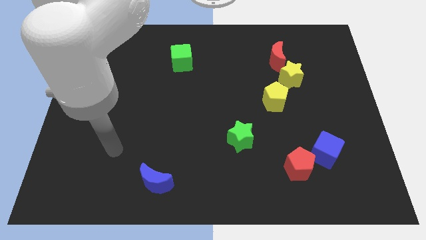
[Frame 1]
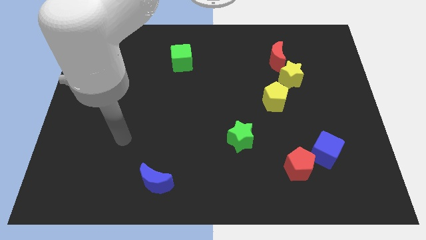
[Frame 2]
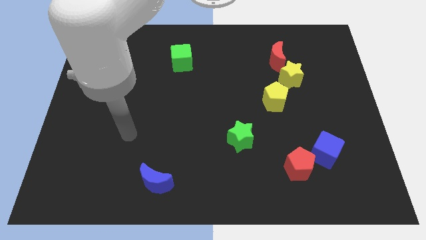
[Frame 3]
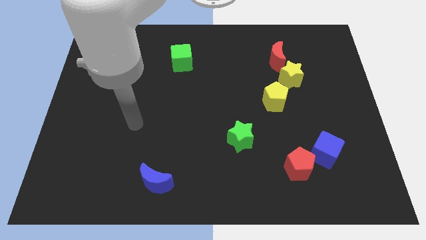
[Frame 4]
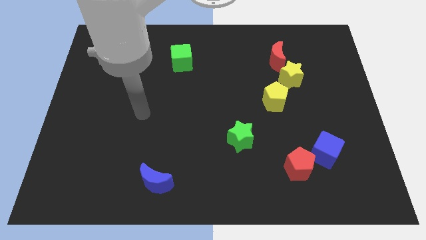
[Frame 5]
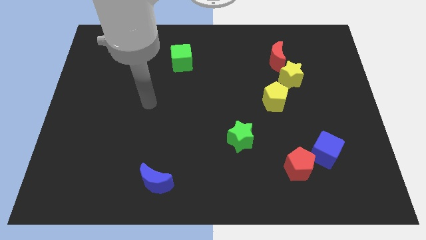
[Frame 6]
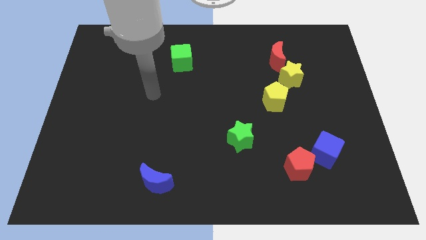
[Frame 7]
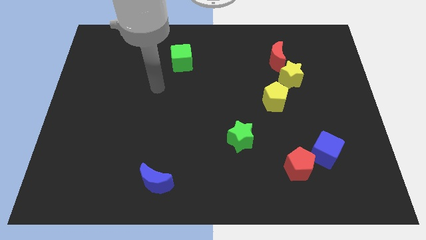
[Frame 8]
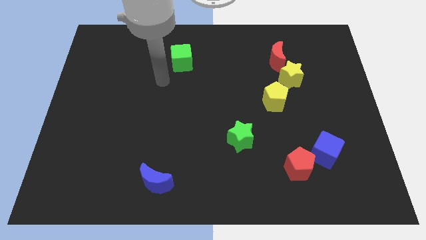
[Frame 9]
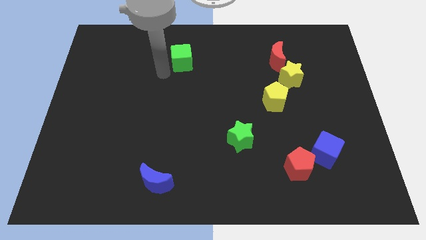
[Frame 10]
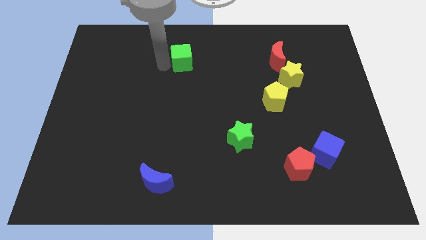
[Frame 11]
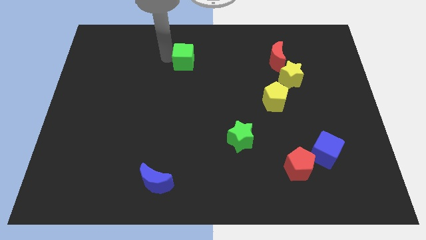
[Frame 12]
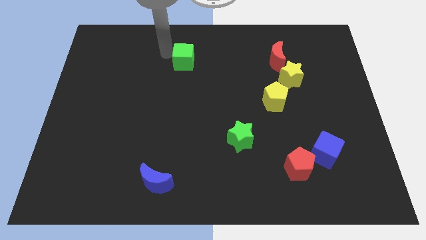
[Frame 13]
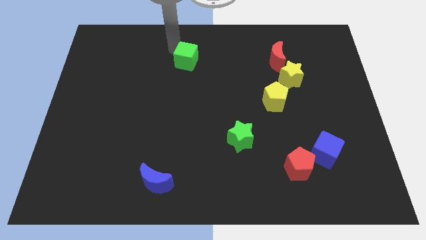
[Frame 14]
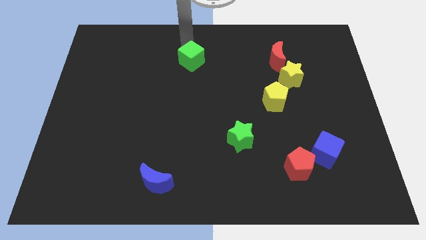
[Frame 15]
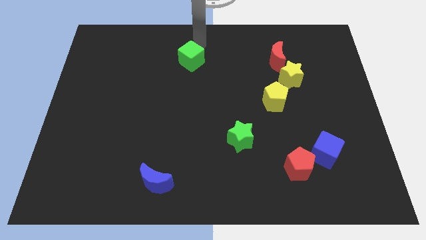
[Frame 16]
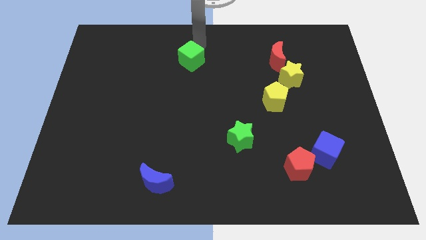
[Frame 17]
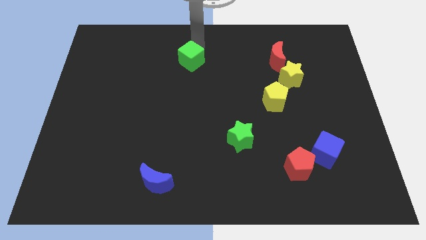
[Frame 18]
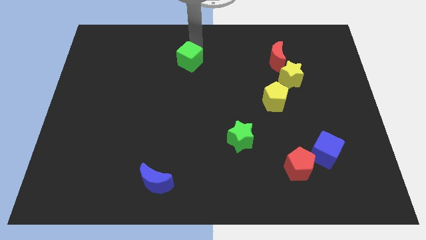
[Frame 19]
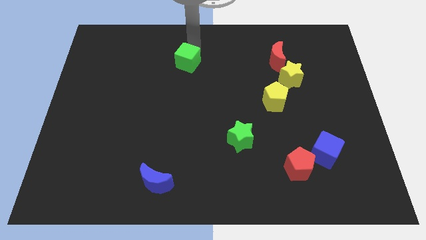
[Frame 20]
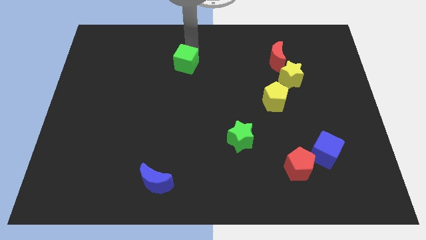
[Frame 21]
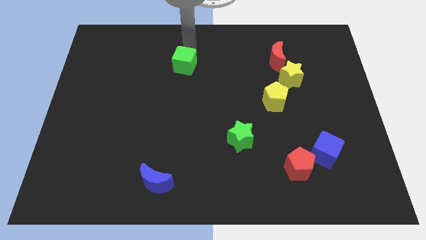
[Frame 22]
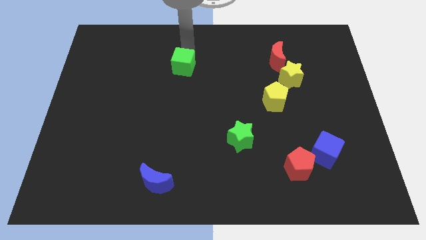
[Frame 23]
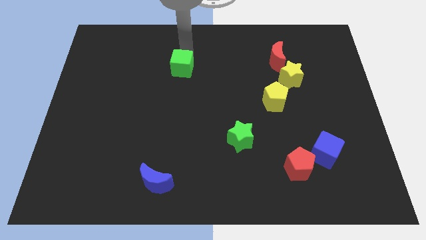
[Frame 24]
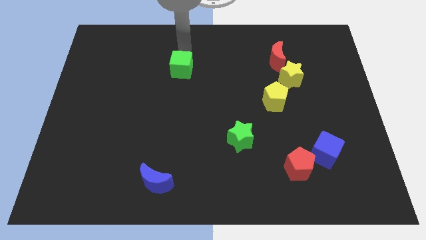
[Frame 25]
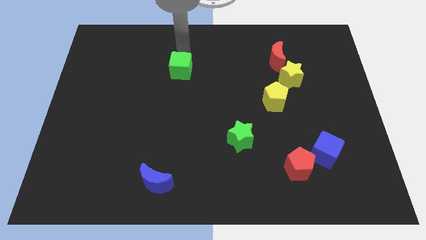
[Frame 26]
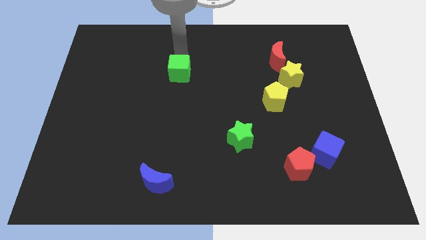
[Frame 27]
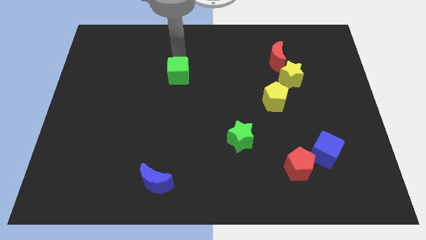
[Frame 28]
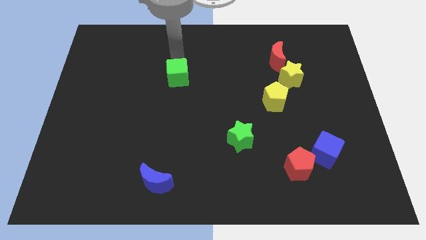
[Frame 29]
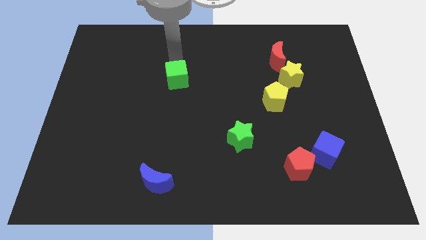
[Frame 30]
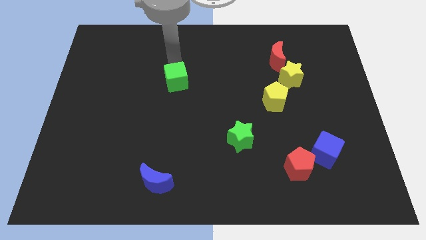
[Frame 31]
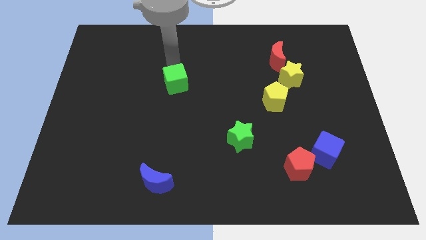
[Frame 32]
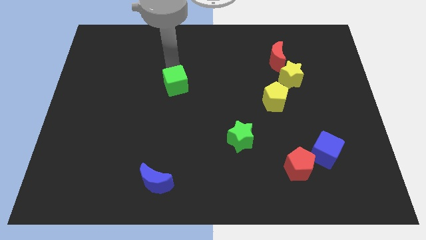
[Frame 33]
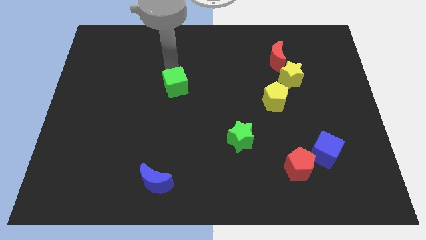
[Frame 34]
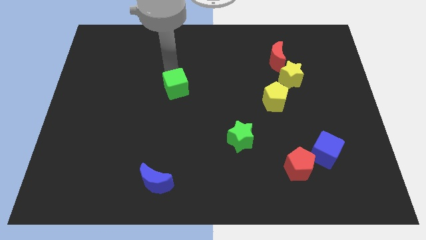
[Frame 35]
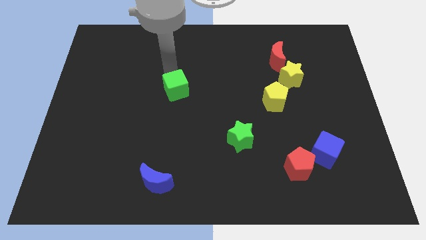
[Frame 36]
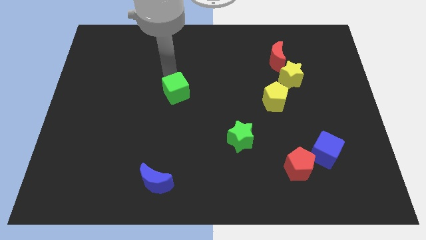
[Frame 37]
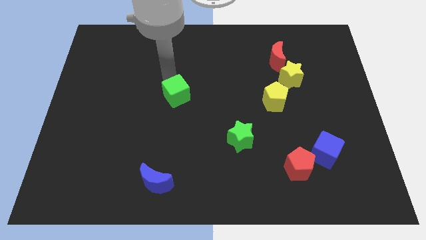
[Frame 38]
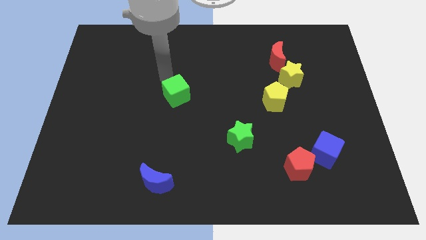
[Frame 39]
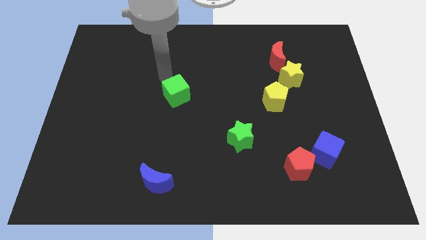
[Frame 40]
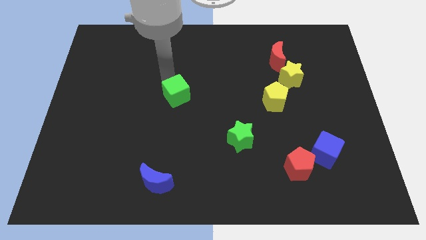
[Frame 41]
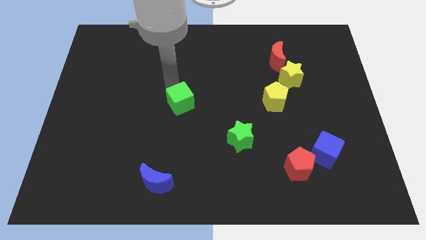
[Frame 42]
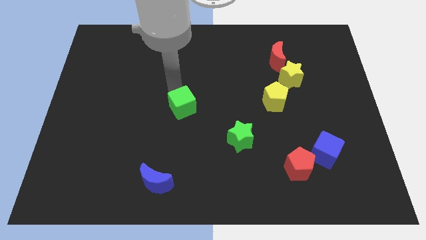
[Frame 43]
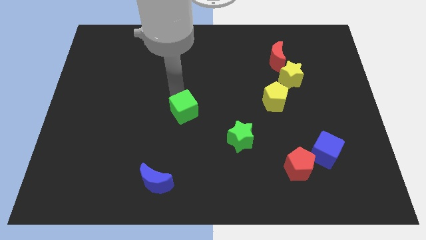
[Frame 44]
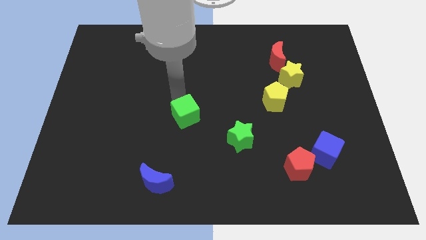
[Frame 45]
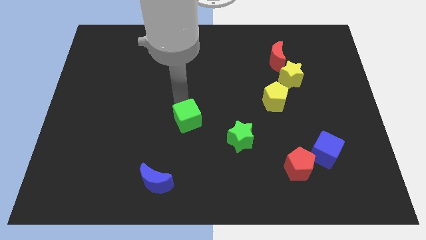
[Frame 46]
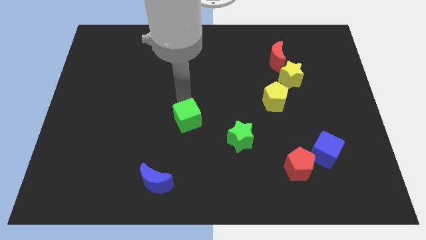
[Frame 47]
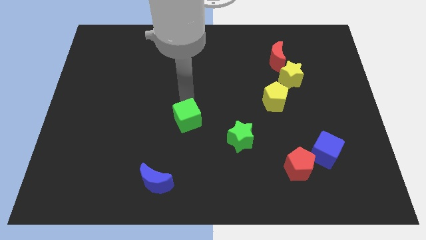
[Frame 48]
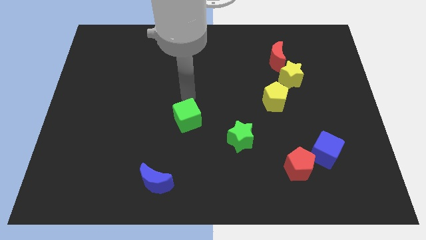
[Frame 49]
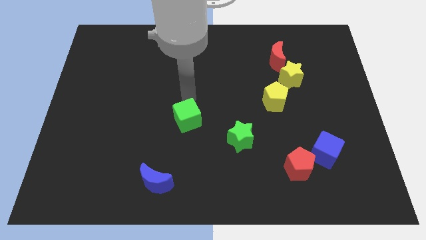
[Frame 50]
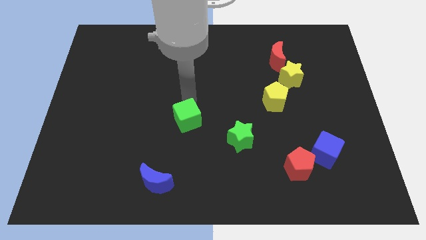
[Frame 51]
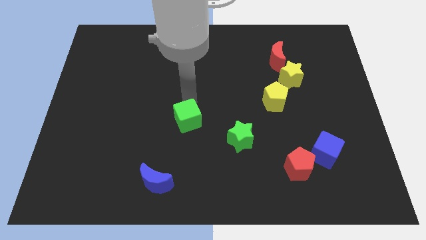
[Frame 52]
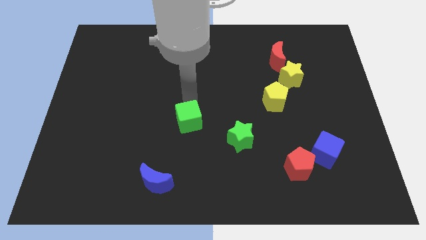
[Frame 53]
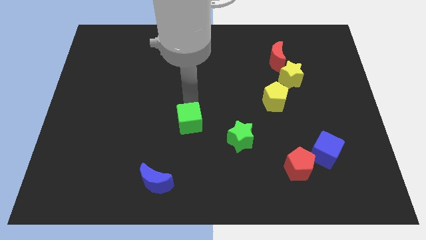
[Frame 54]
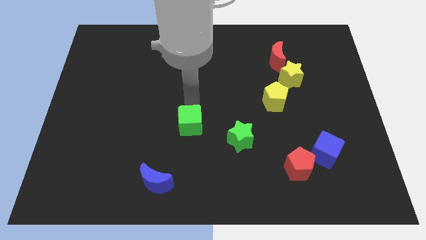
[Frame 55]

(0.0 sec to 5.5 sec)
slide the green cube down

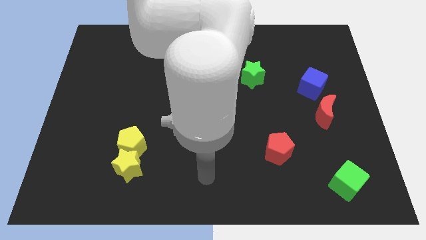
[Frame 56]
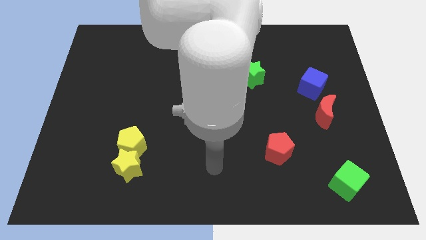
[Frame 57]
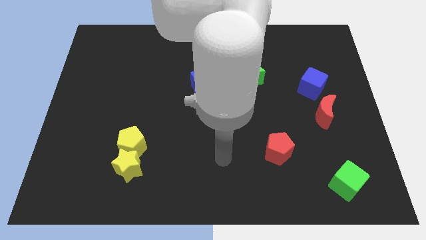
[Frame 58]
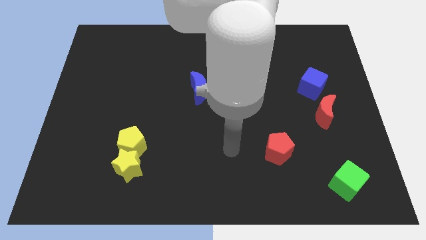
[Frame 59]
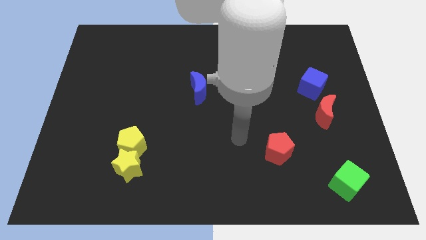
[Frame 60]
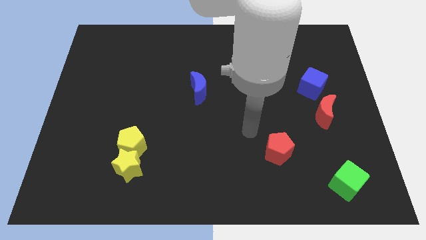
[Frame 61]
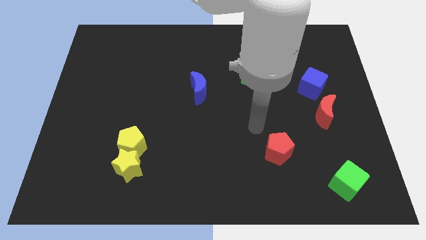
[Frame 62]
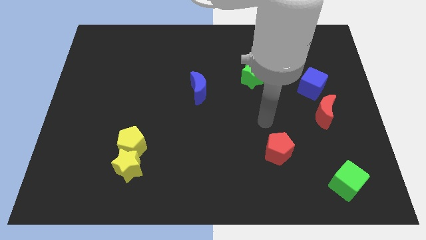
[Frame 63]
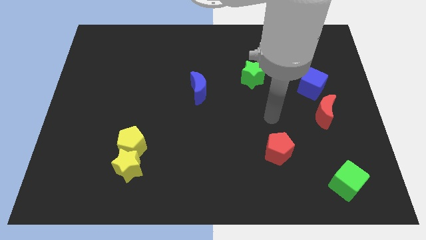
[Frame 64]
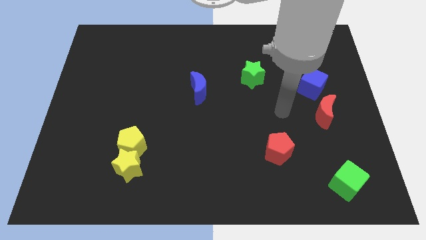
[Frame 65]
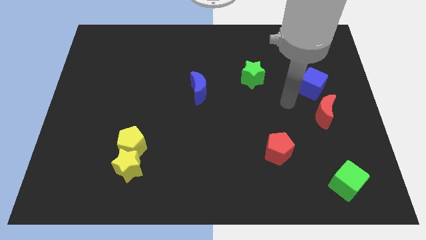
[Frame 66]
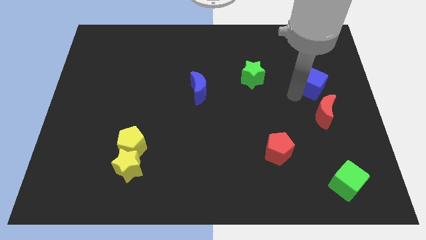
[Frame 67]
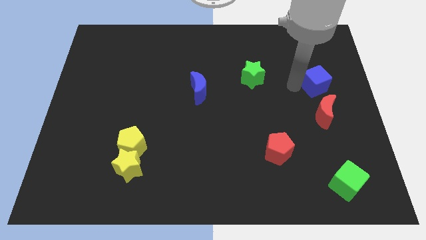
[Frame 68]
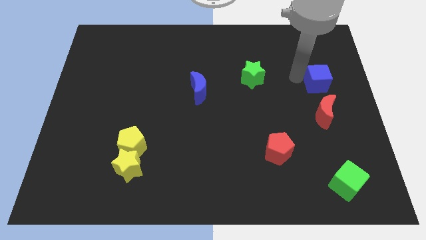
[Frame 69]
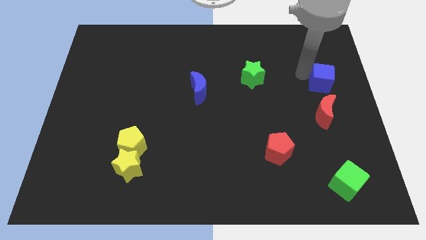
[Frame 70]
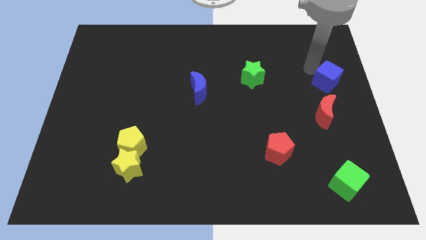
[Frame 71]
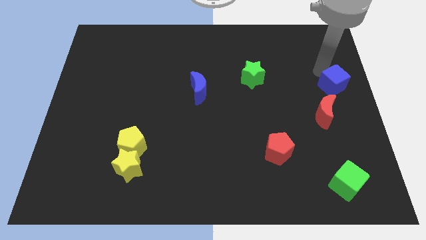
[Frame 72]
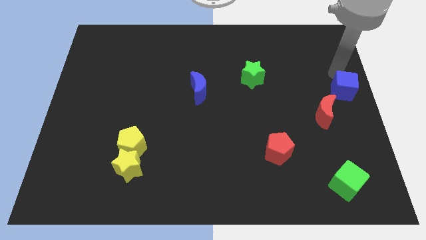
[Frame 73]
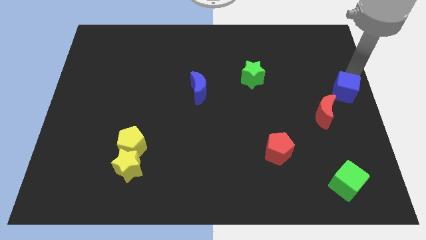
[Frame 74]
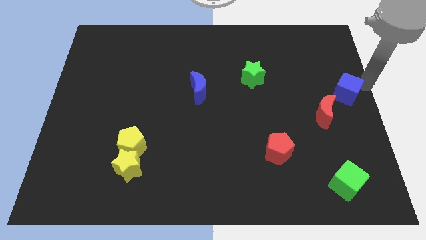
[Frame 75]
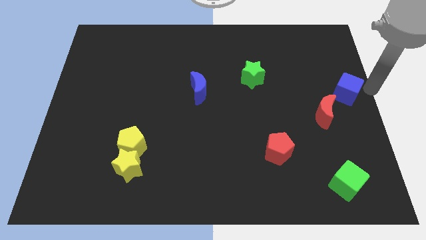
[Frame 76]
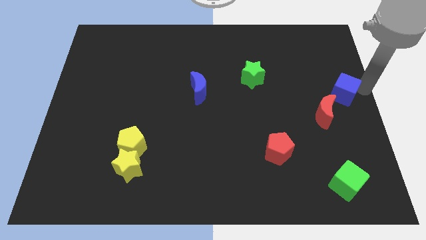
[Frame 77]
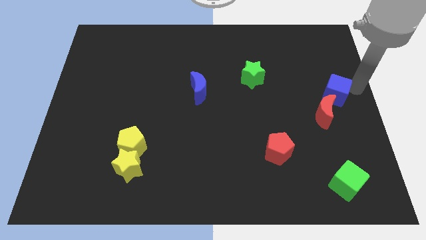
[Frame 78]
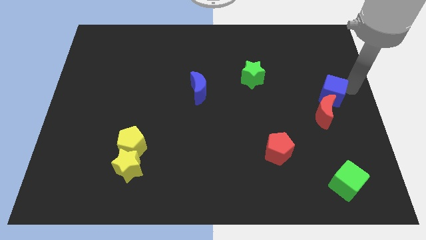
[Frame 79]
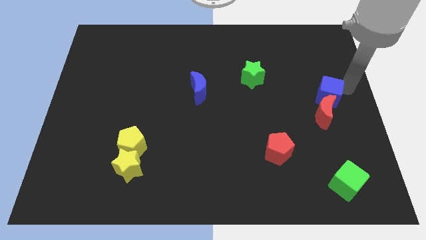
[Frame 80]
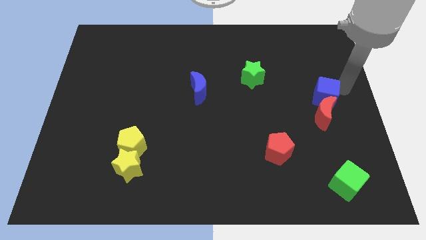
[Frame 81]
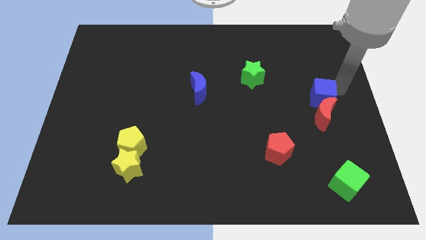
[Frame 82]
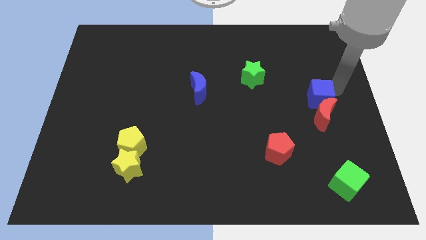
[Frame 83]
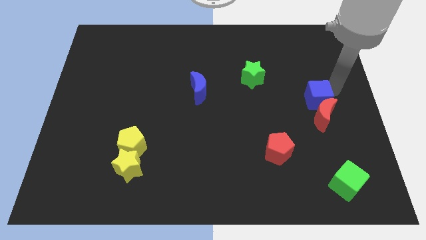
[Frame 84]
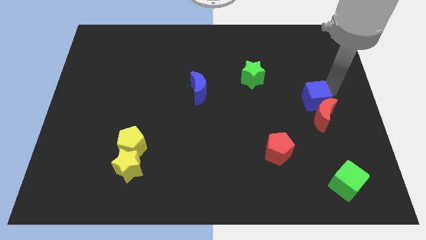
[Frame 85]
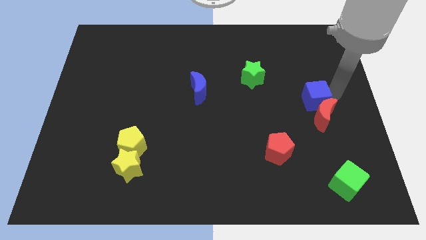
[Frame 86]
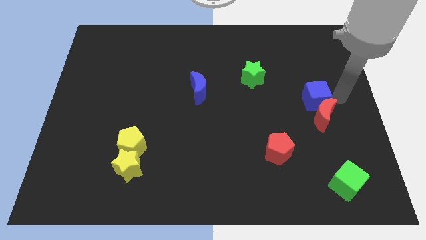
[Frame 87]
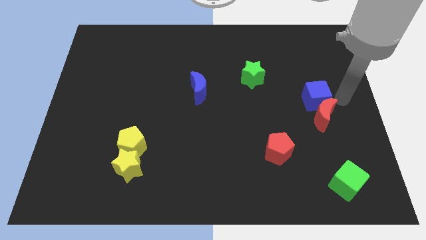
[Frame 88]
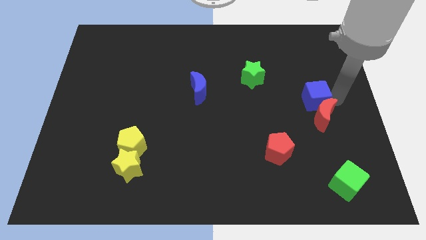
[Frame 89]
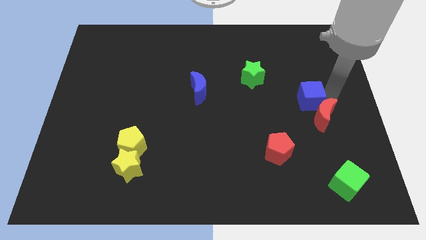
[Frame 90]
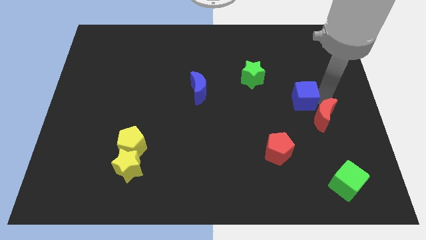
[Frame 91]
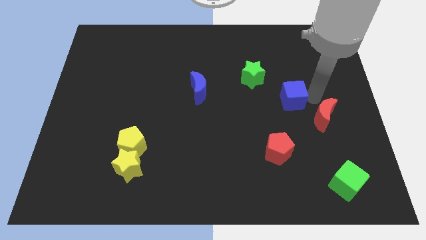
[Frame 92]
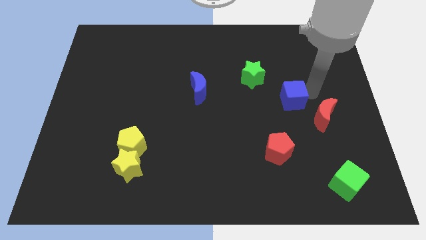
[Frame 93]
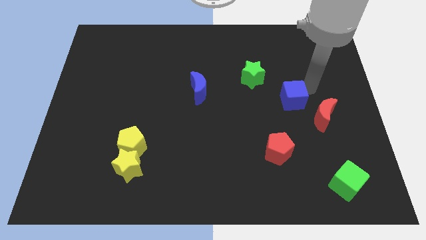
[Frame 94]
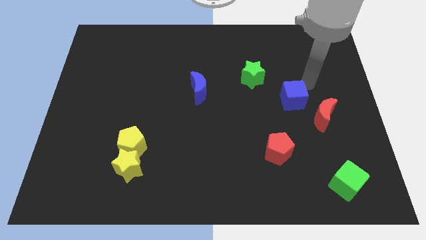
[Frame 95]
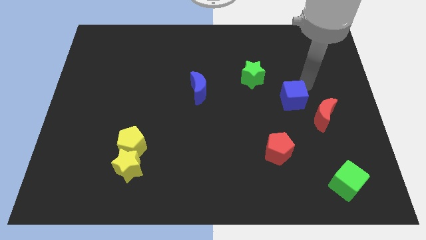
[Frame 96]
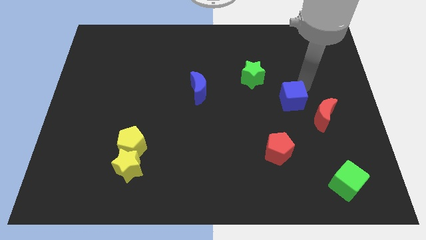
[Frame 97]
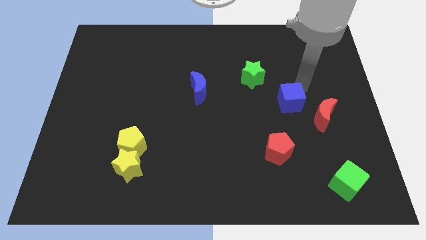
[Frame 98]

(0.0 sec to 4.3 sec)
push the blue cube down and left diagonally somewhat
